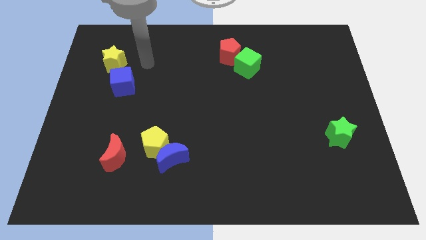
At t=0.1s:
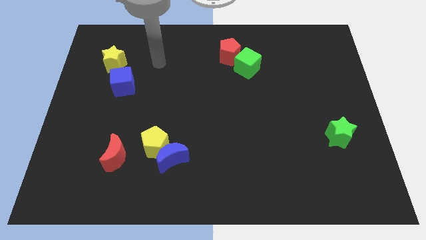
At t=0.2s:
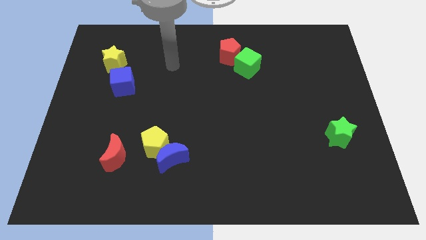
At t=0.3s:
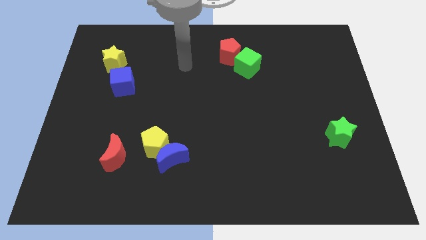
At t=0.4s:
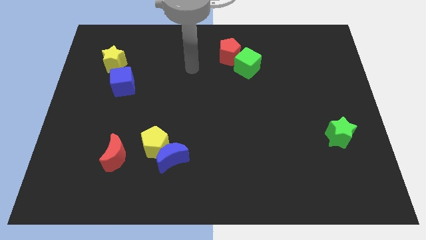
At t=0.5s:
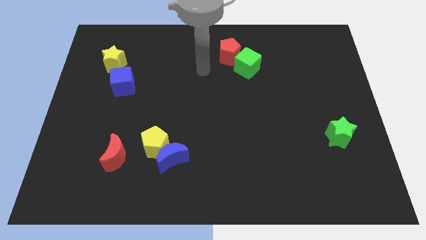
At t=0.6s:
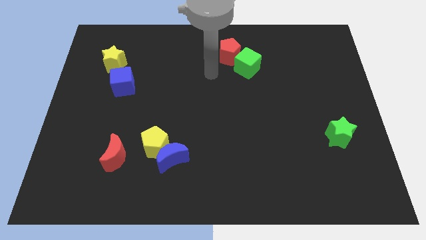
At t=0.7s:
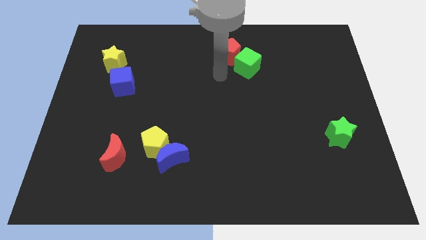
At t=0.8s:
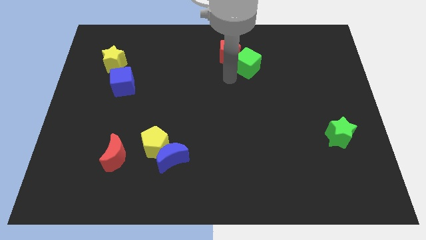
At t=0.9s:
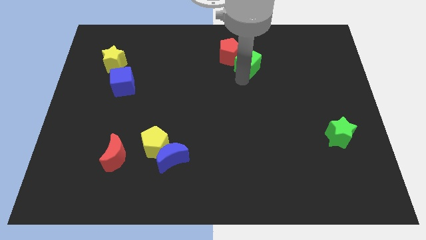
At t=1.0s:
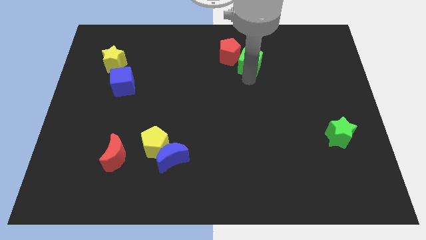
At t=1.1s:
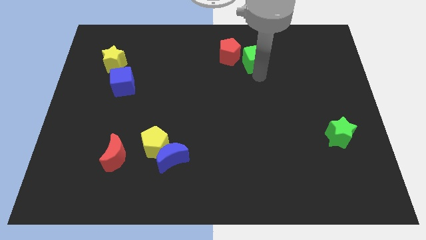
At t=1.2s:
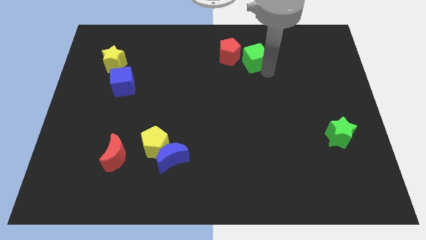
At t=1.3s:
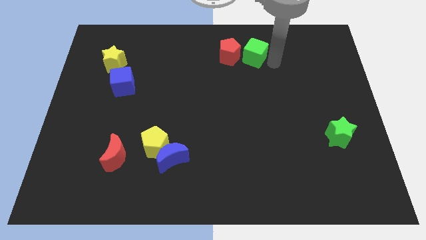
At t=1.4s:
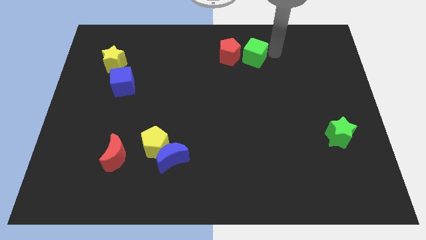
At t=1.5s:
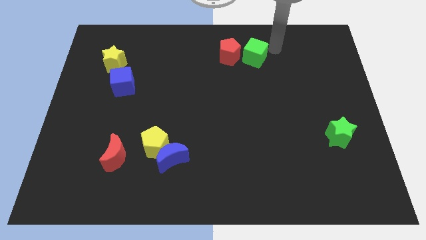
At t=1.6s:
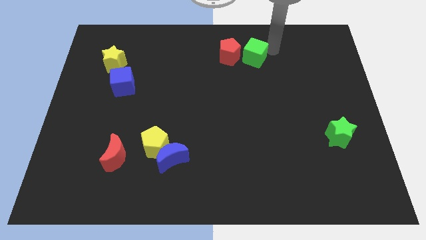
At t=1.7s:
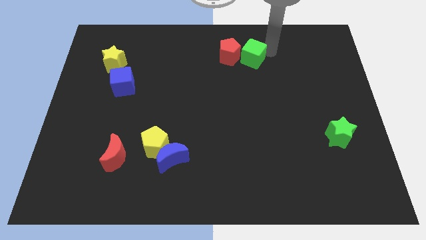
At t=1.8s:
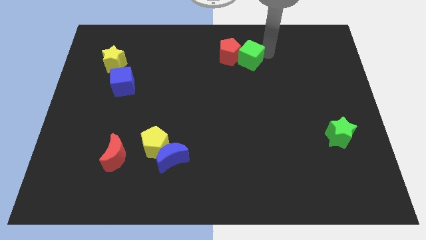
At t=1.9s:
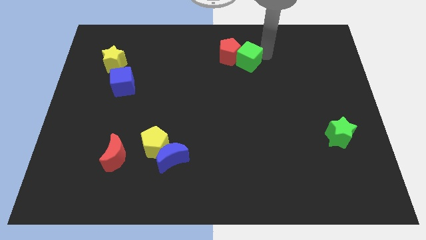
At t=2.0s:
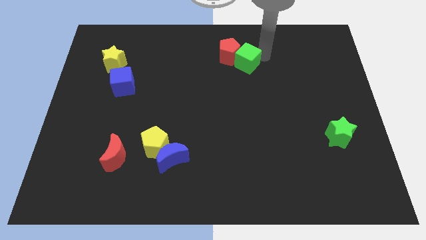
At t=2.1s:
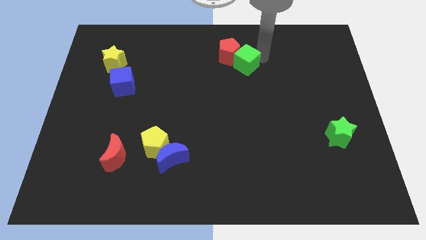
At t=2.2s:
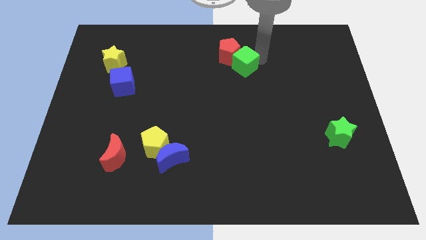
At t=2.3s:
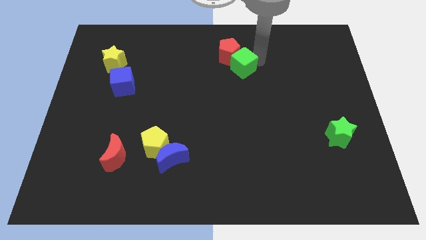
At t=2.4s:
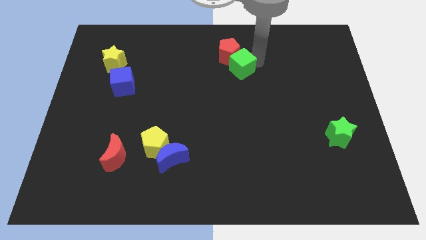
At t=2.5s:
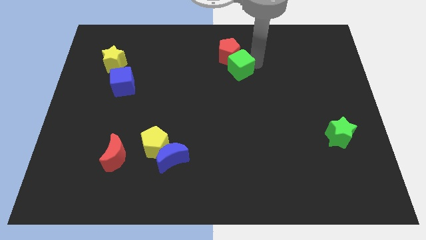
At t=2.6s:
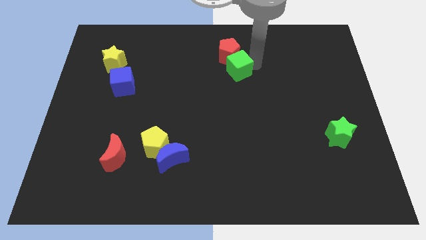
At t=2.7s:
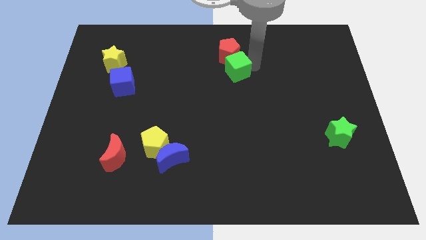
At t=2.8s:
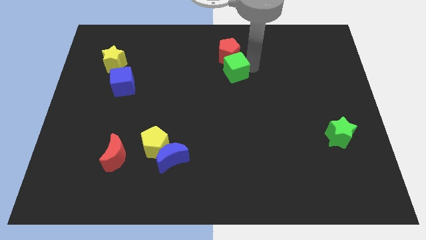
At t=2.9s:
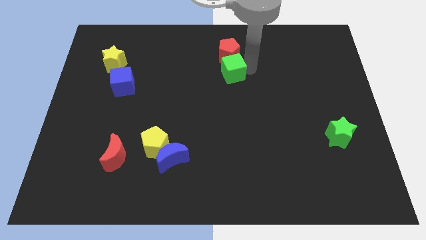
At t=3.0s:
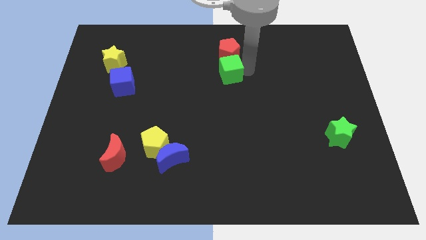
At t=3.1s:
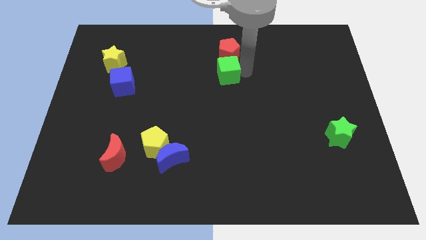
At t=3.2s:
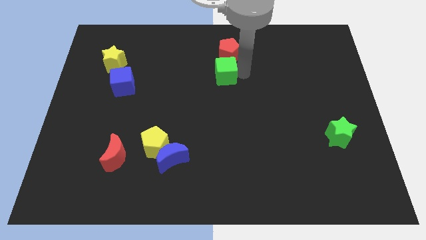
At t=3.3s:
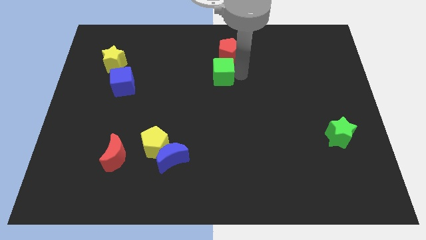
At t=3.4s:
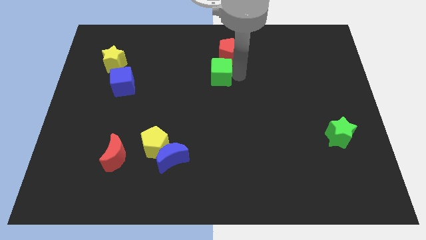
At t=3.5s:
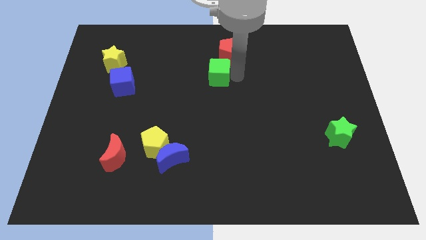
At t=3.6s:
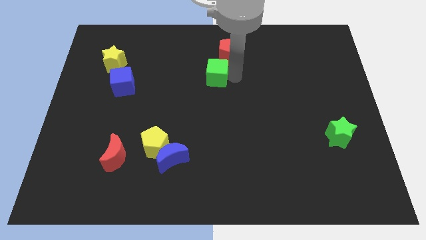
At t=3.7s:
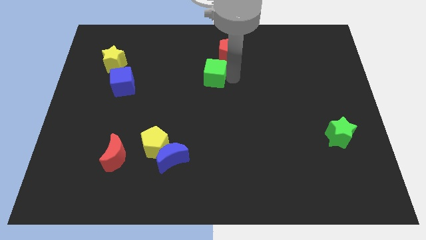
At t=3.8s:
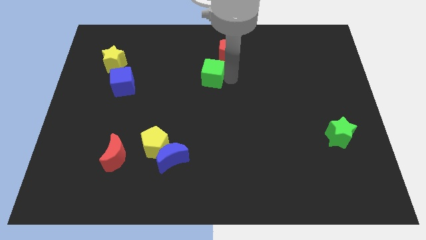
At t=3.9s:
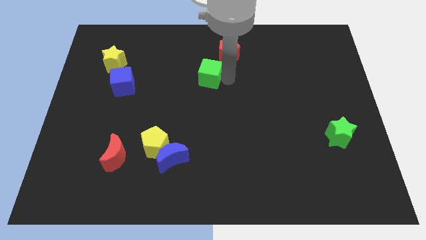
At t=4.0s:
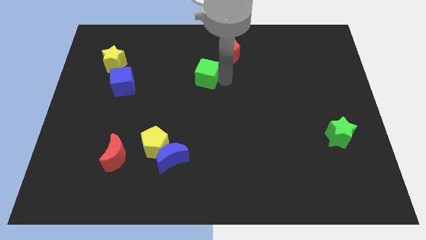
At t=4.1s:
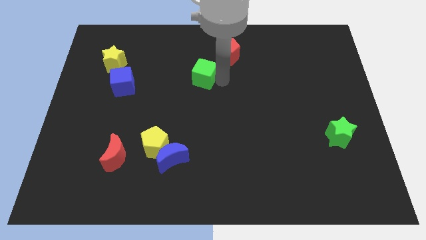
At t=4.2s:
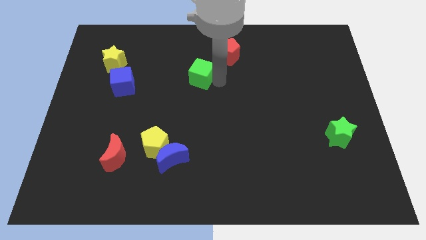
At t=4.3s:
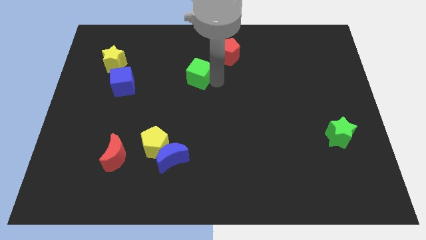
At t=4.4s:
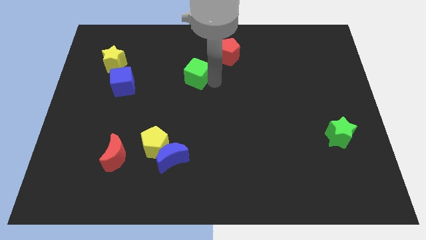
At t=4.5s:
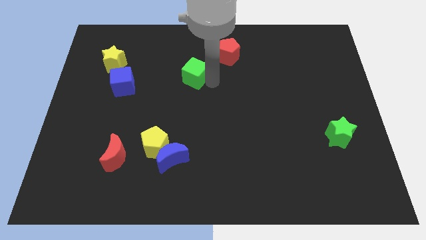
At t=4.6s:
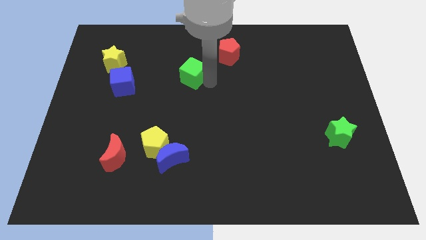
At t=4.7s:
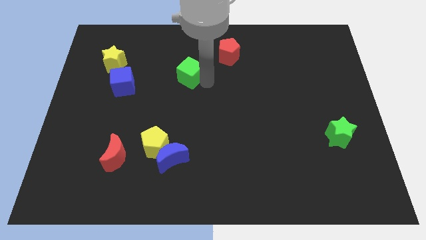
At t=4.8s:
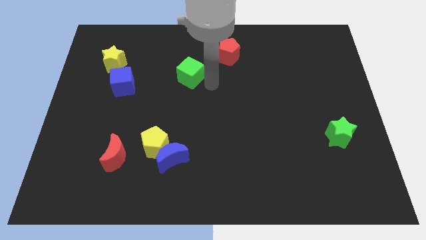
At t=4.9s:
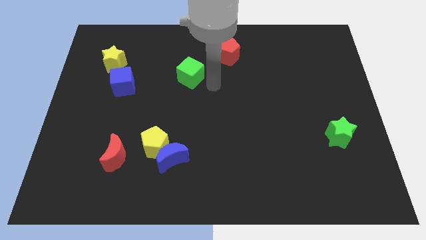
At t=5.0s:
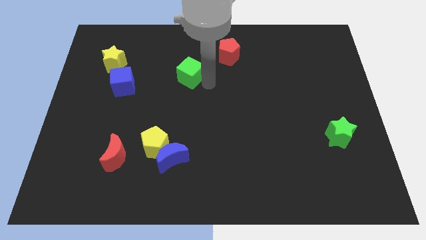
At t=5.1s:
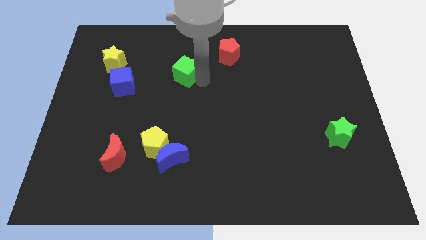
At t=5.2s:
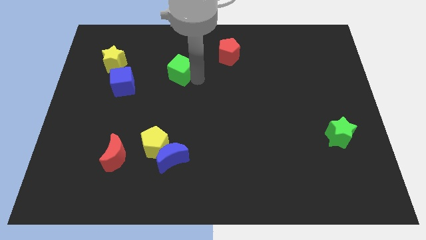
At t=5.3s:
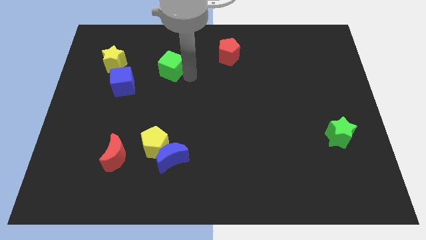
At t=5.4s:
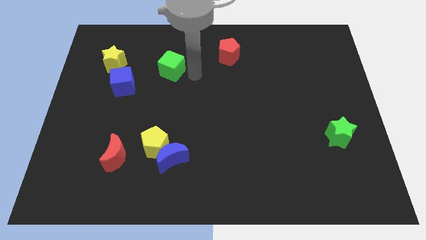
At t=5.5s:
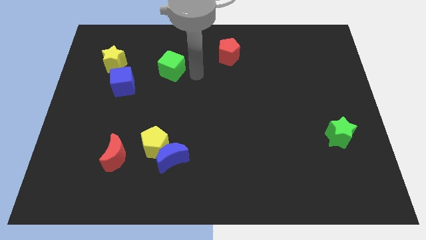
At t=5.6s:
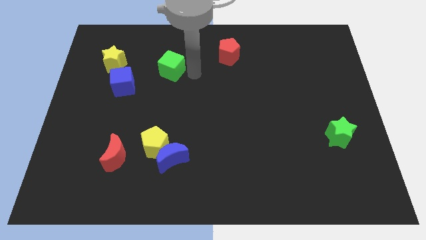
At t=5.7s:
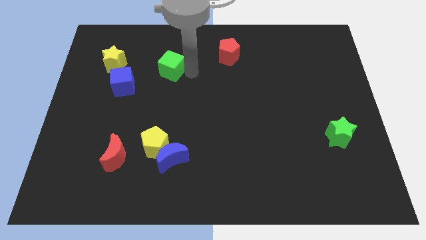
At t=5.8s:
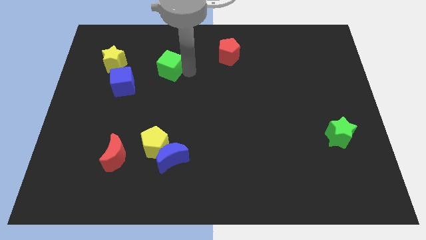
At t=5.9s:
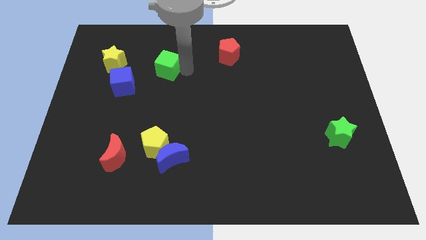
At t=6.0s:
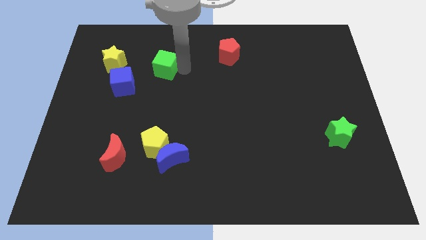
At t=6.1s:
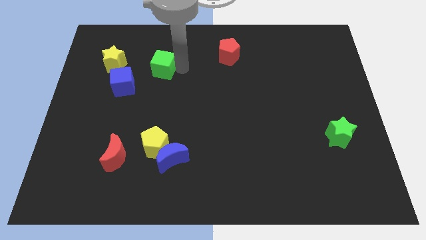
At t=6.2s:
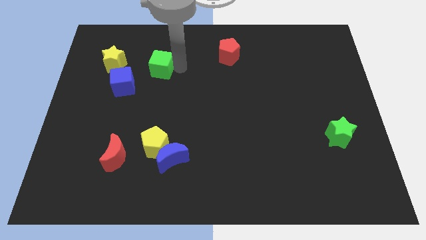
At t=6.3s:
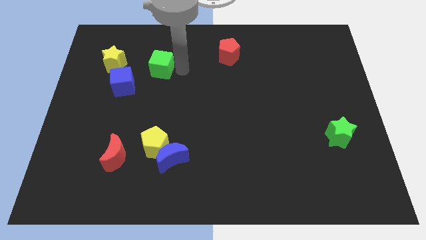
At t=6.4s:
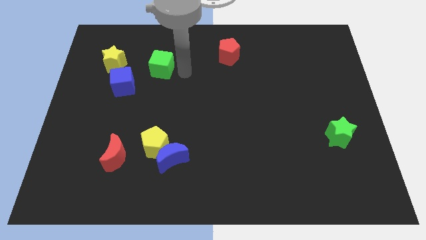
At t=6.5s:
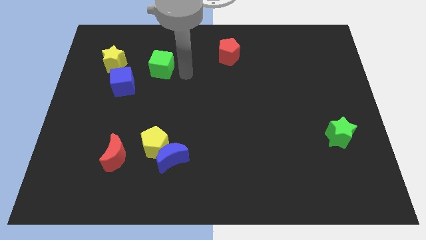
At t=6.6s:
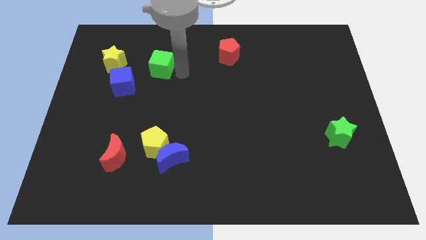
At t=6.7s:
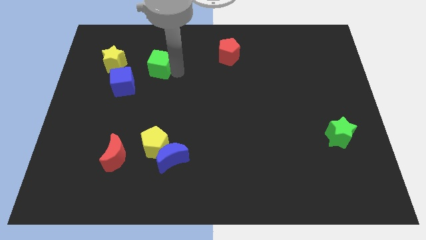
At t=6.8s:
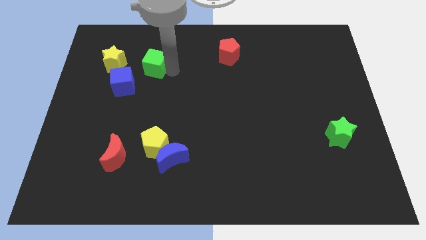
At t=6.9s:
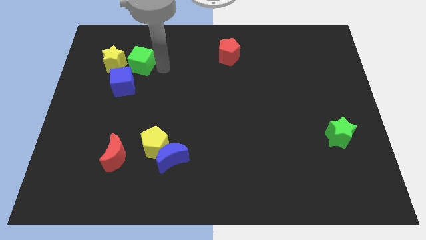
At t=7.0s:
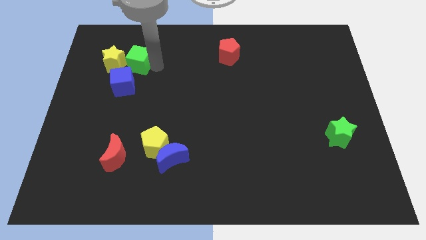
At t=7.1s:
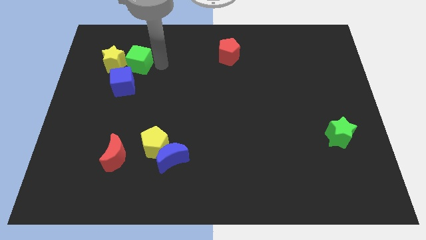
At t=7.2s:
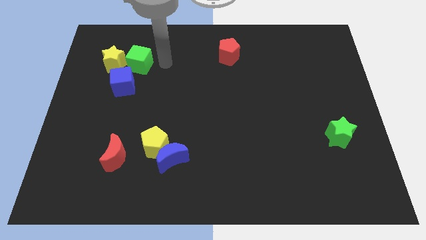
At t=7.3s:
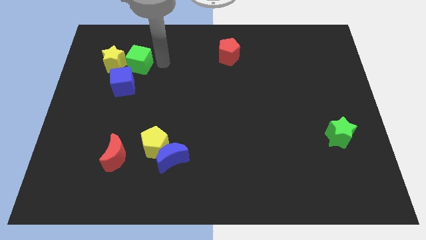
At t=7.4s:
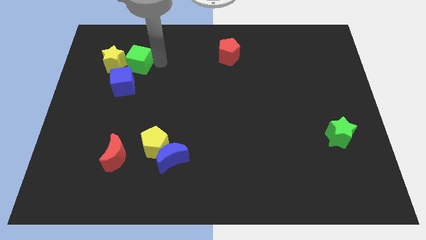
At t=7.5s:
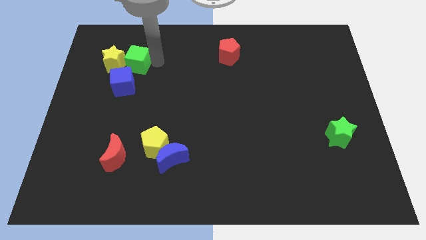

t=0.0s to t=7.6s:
push the green cube close to the yellow star
